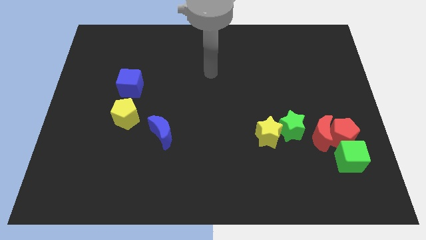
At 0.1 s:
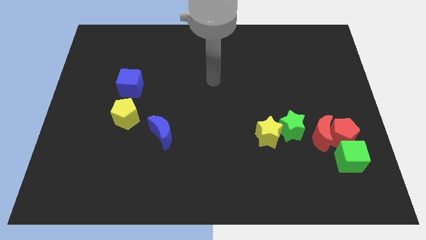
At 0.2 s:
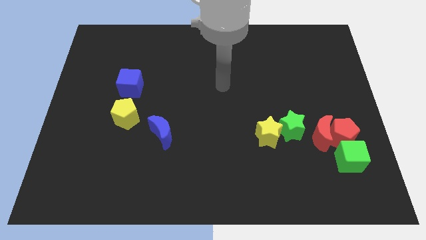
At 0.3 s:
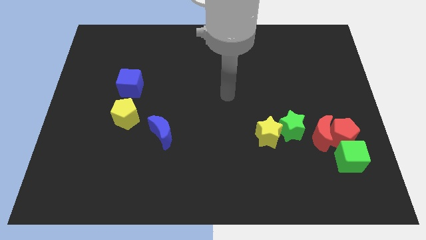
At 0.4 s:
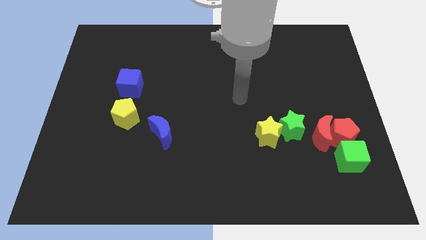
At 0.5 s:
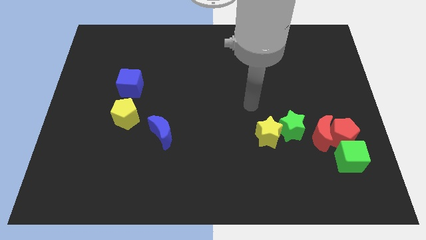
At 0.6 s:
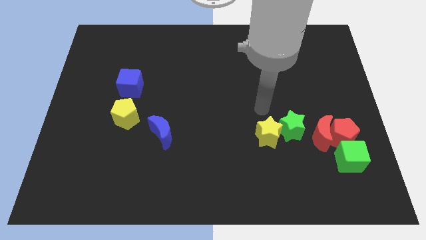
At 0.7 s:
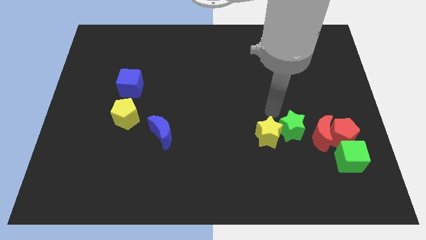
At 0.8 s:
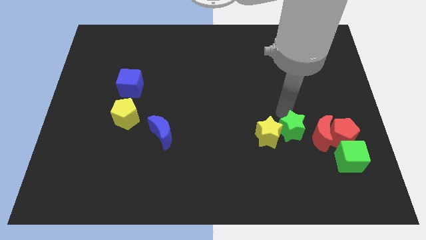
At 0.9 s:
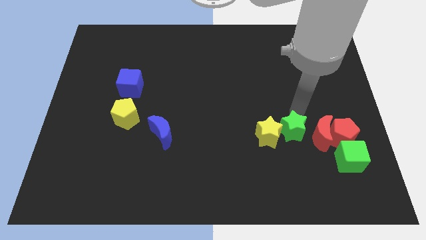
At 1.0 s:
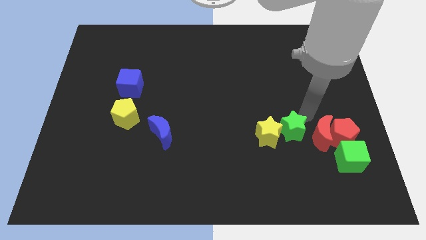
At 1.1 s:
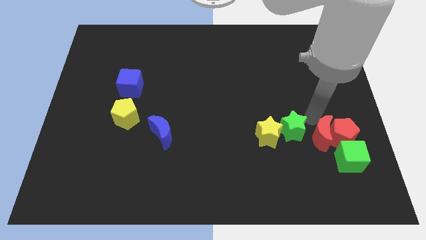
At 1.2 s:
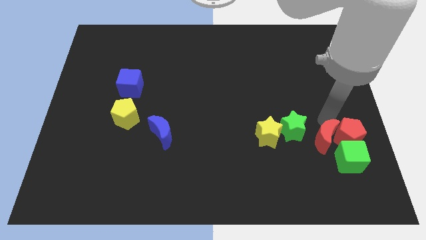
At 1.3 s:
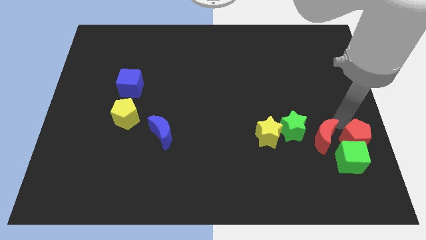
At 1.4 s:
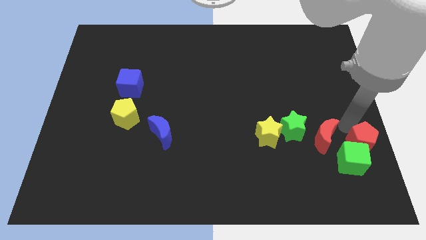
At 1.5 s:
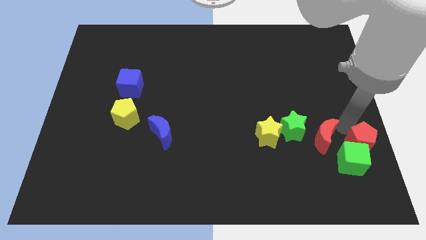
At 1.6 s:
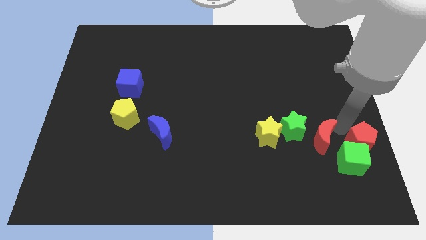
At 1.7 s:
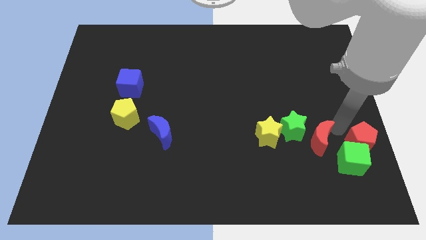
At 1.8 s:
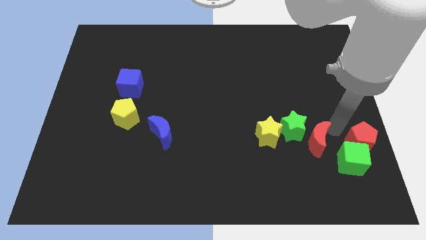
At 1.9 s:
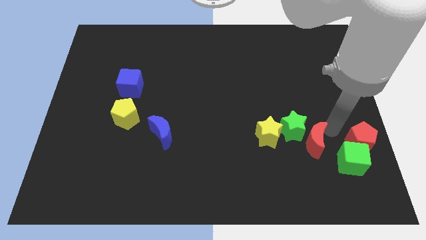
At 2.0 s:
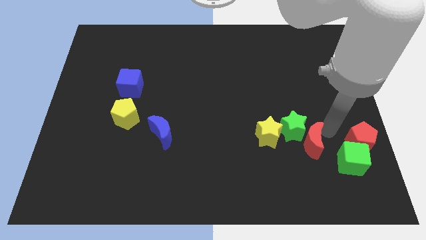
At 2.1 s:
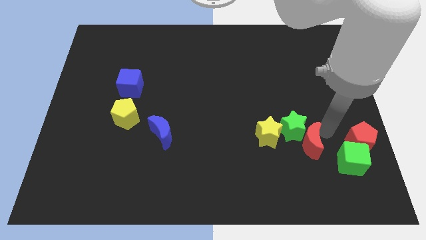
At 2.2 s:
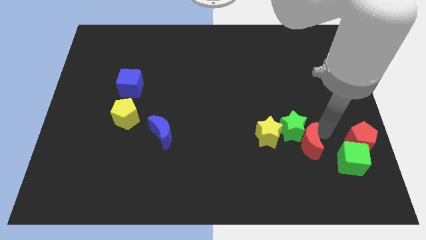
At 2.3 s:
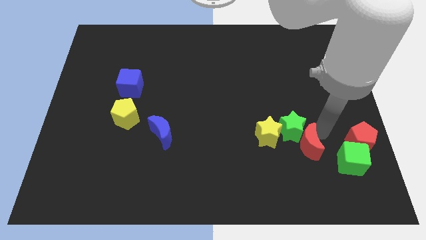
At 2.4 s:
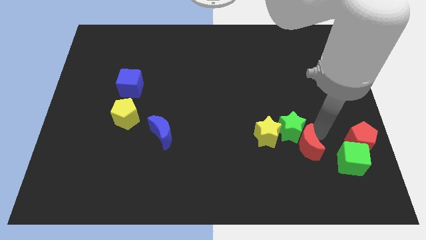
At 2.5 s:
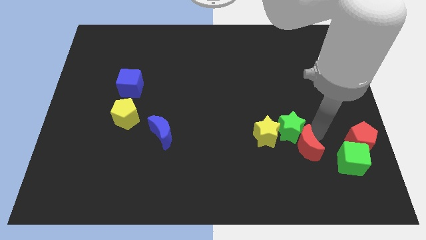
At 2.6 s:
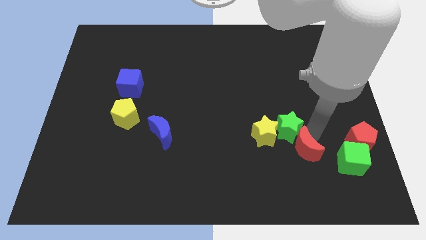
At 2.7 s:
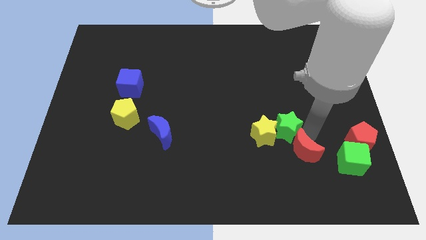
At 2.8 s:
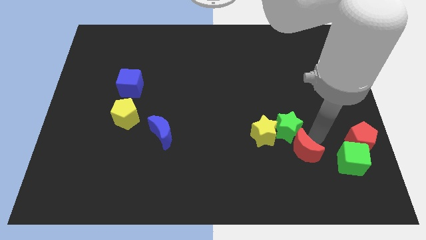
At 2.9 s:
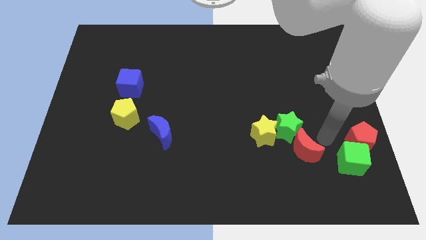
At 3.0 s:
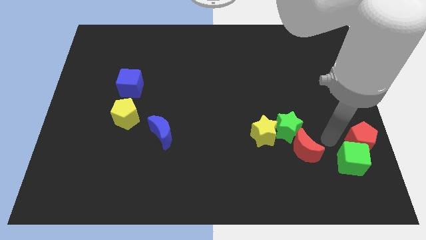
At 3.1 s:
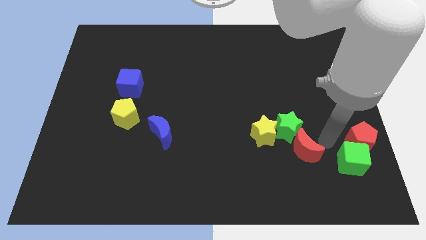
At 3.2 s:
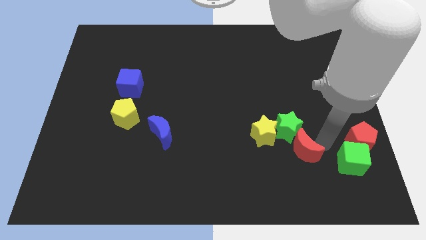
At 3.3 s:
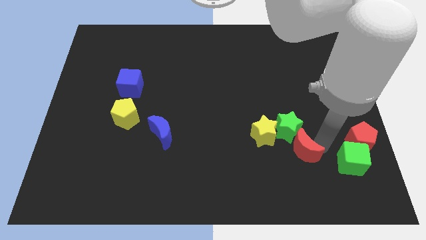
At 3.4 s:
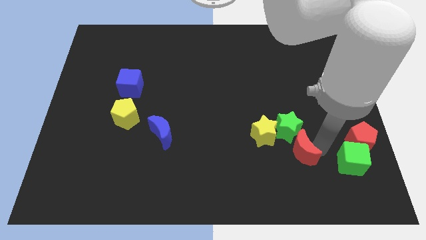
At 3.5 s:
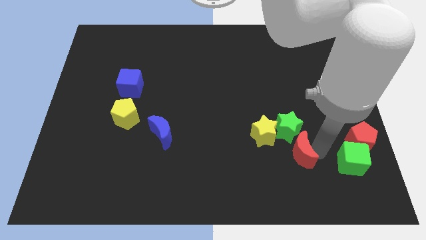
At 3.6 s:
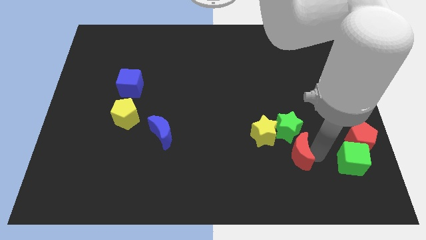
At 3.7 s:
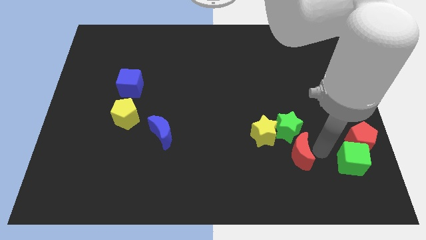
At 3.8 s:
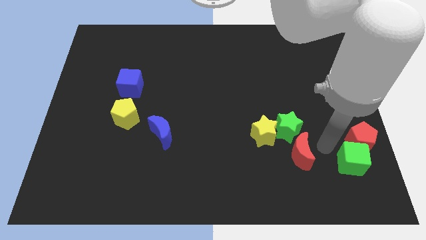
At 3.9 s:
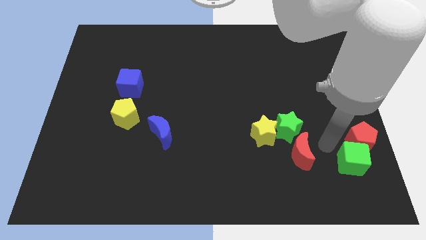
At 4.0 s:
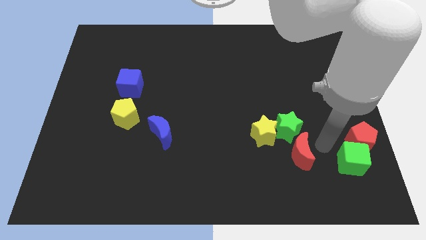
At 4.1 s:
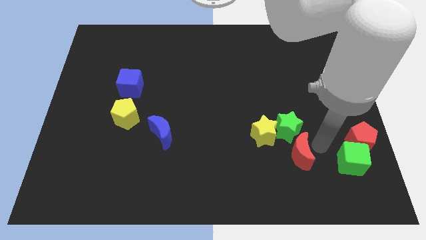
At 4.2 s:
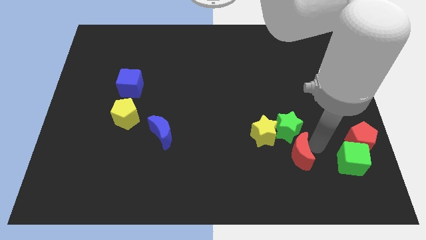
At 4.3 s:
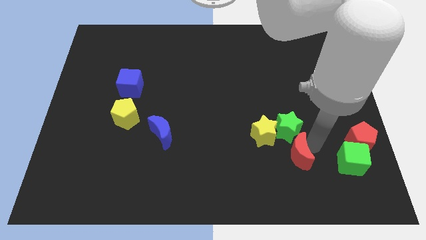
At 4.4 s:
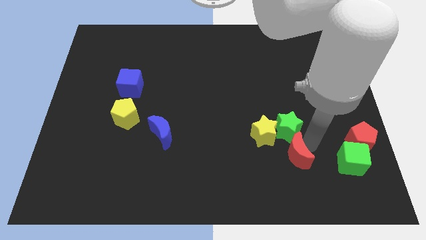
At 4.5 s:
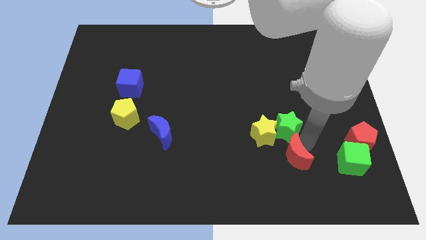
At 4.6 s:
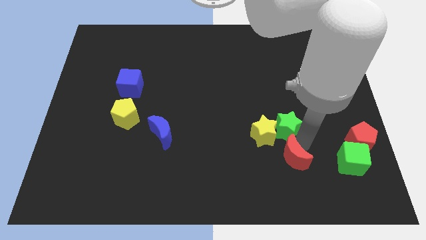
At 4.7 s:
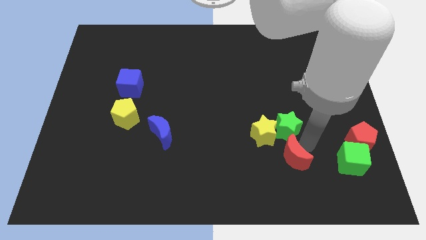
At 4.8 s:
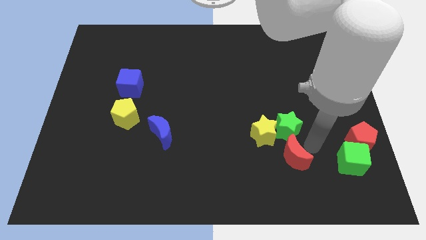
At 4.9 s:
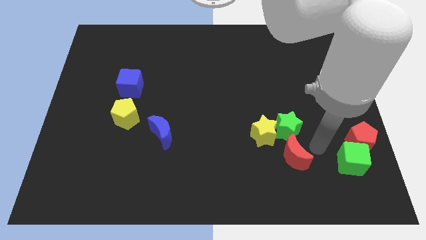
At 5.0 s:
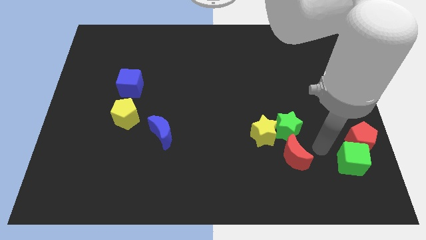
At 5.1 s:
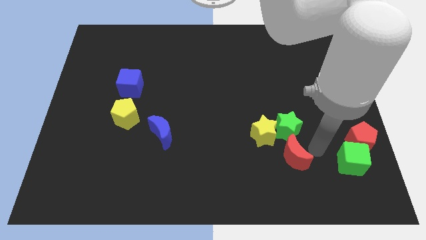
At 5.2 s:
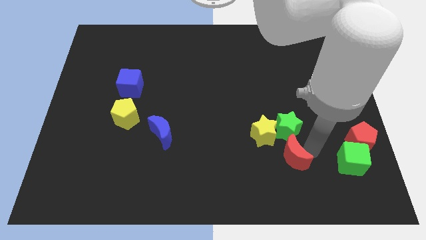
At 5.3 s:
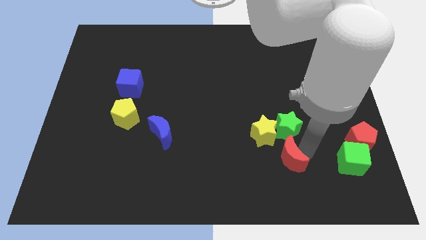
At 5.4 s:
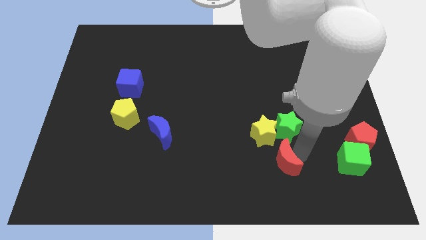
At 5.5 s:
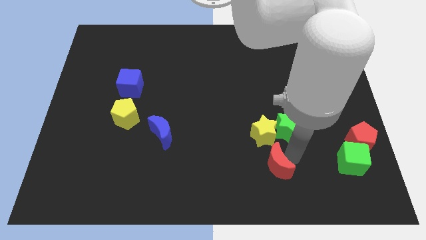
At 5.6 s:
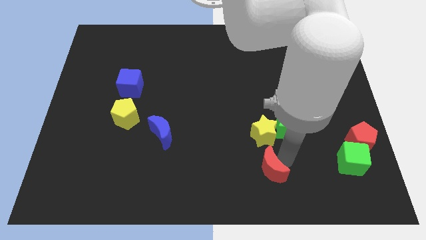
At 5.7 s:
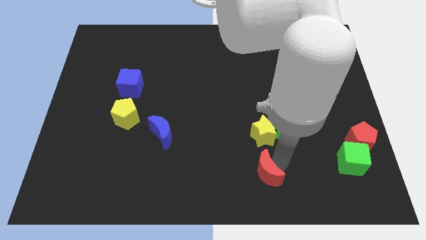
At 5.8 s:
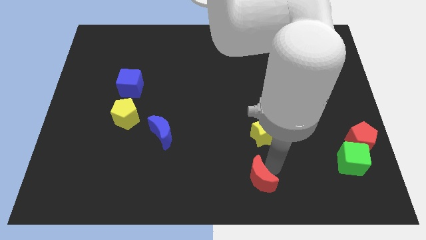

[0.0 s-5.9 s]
push the red moon to the bottom
